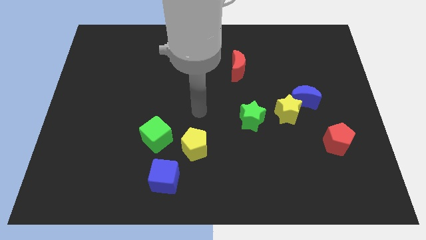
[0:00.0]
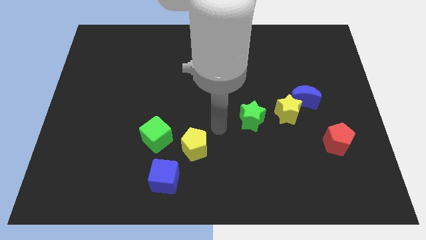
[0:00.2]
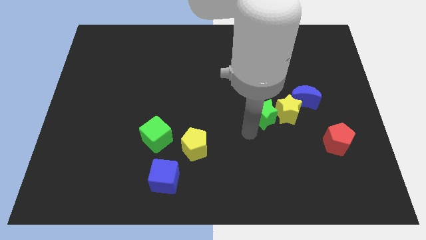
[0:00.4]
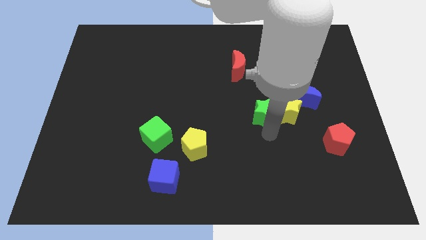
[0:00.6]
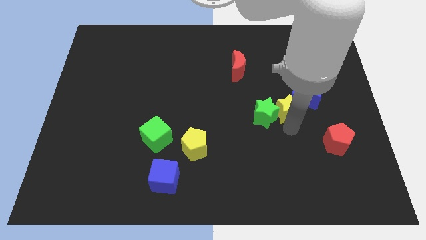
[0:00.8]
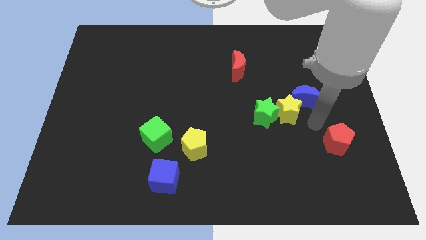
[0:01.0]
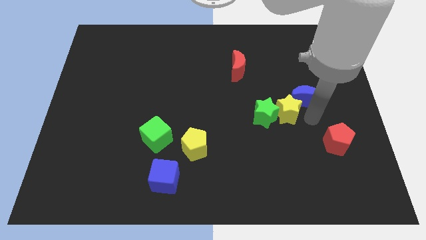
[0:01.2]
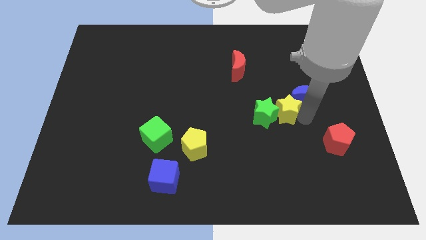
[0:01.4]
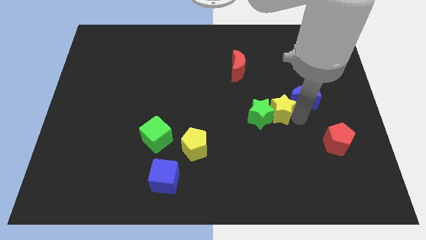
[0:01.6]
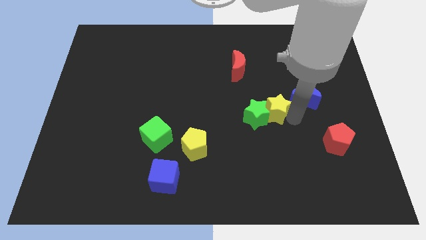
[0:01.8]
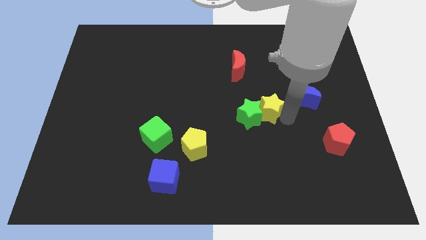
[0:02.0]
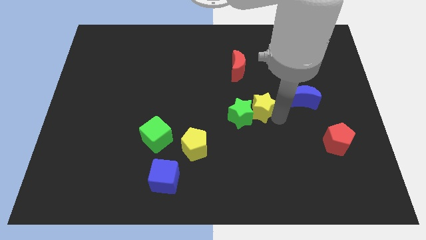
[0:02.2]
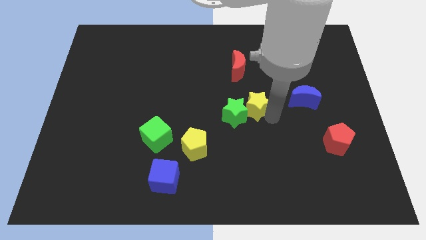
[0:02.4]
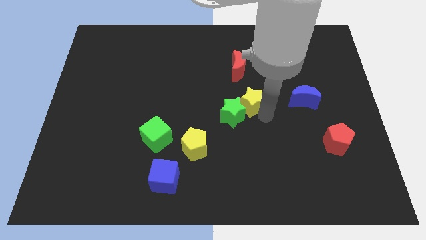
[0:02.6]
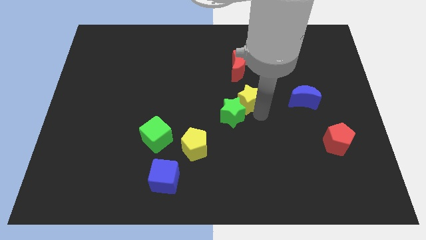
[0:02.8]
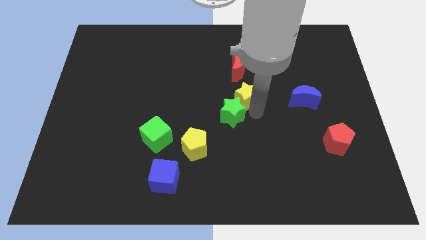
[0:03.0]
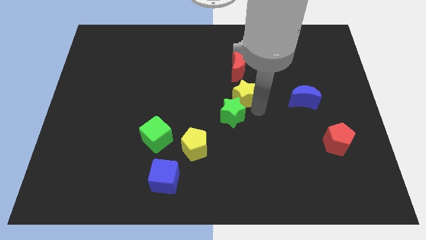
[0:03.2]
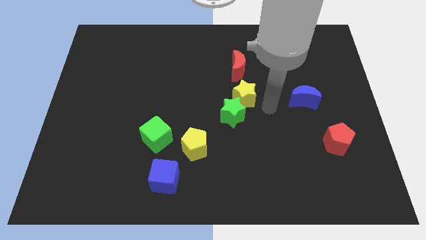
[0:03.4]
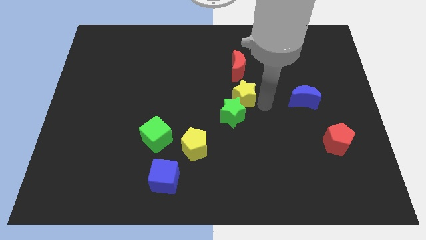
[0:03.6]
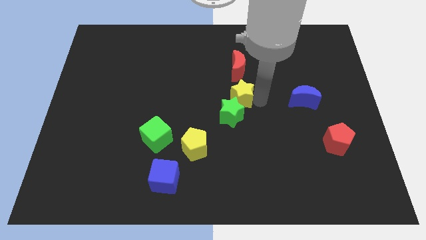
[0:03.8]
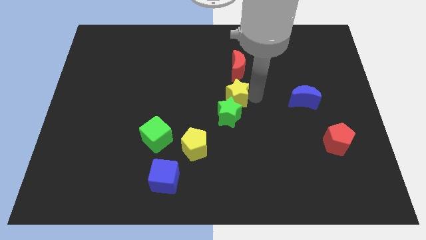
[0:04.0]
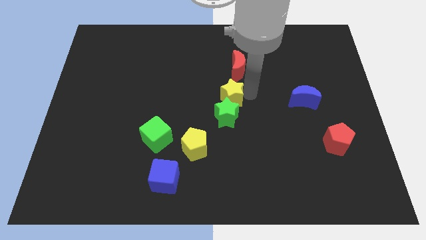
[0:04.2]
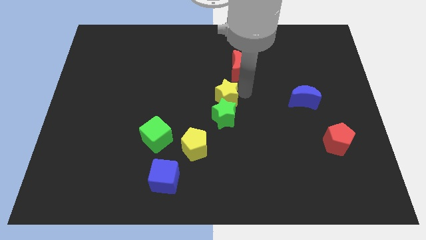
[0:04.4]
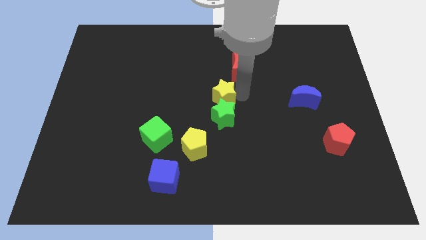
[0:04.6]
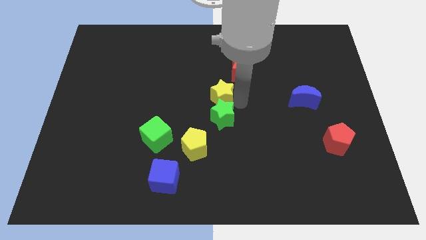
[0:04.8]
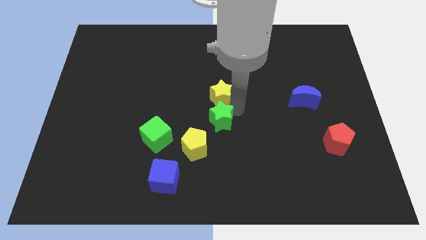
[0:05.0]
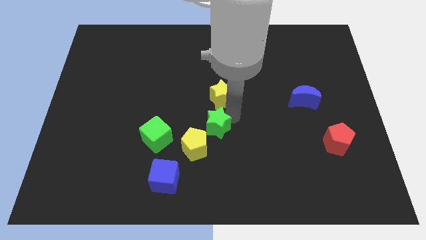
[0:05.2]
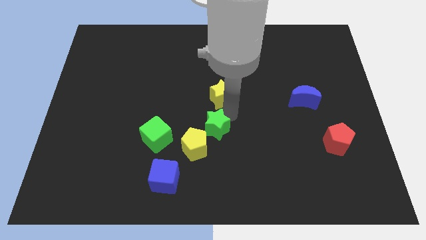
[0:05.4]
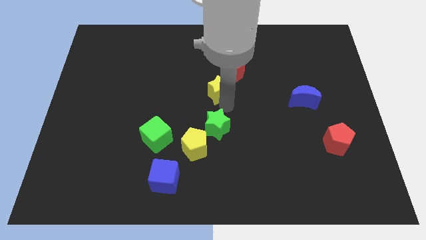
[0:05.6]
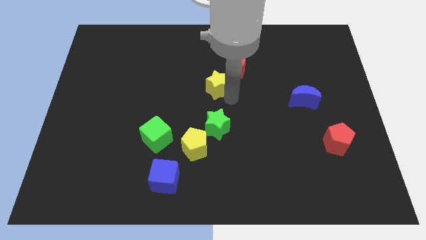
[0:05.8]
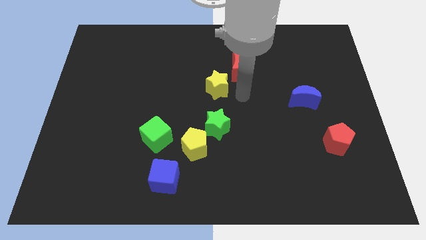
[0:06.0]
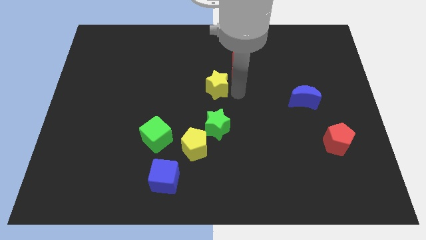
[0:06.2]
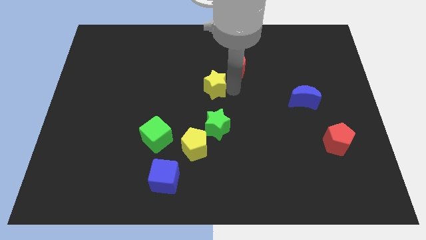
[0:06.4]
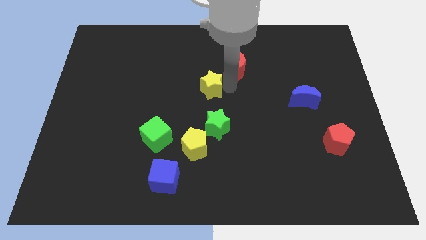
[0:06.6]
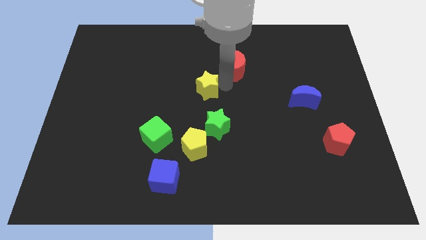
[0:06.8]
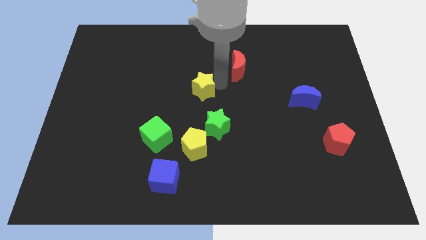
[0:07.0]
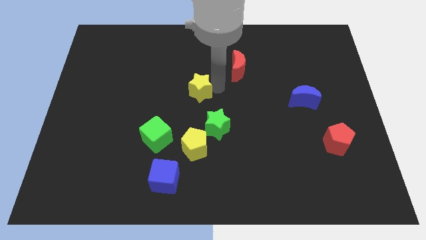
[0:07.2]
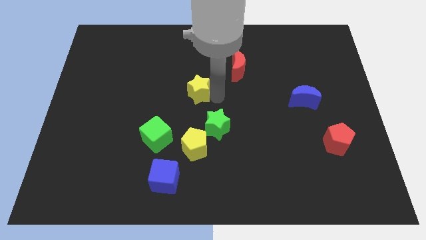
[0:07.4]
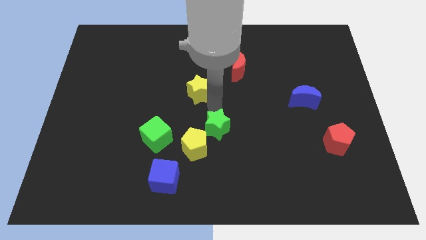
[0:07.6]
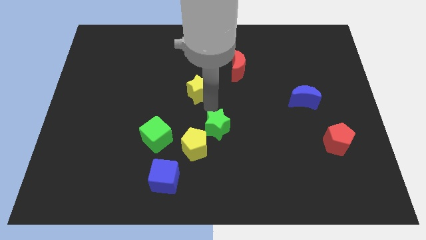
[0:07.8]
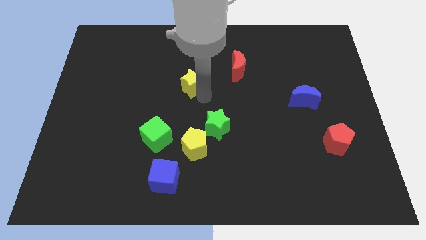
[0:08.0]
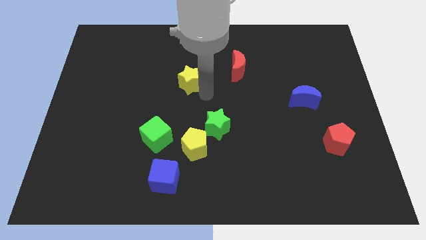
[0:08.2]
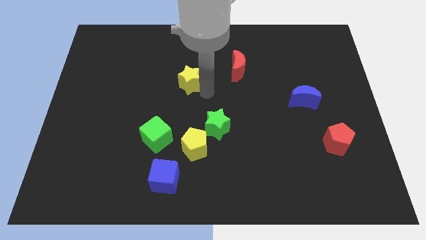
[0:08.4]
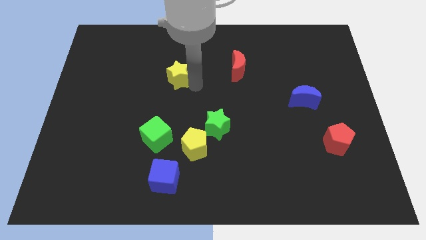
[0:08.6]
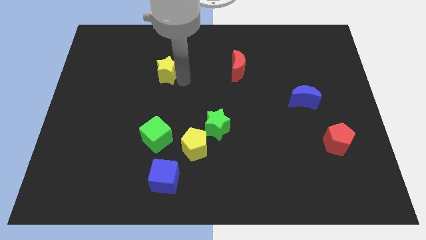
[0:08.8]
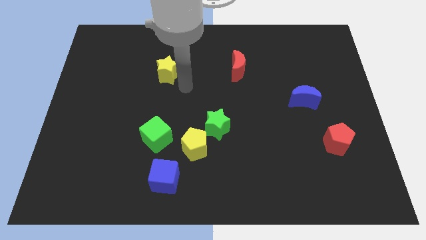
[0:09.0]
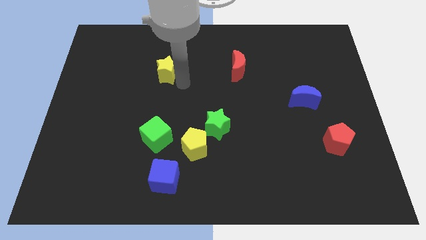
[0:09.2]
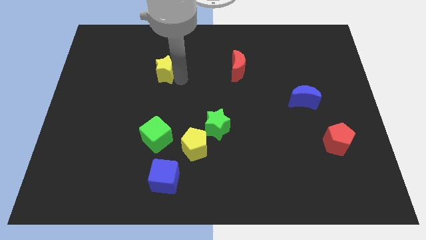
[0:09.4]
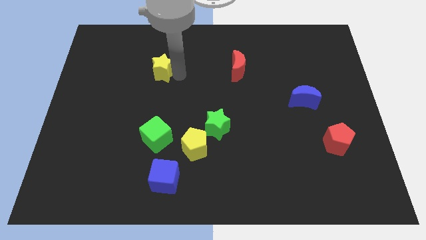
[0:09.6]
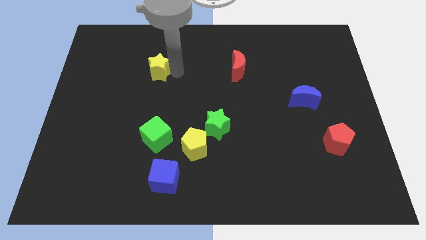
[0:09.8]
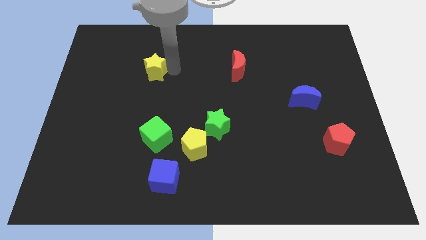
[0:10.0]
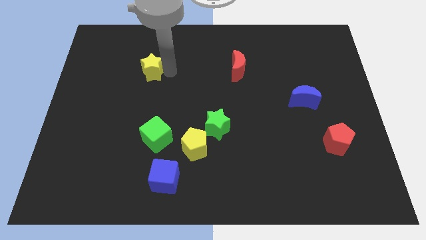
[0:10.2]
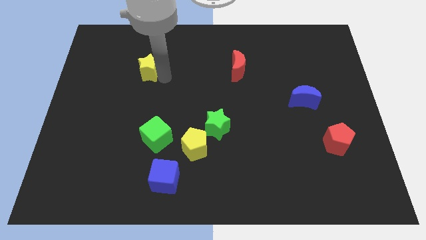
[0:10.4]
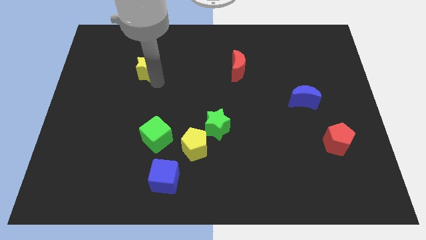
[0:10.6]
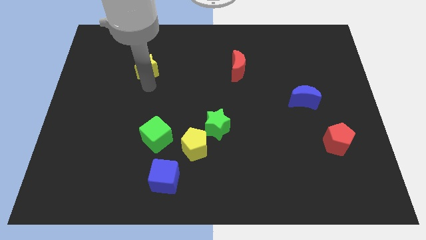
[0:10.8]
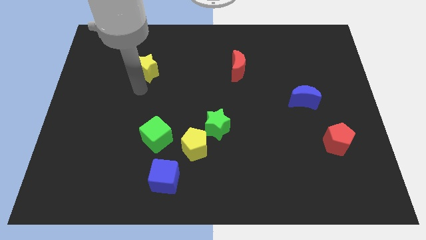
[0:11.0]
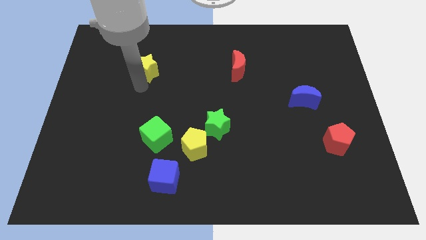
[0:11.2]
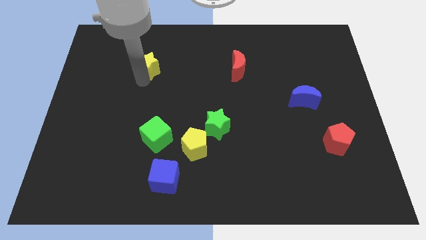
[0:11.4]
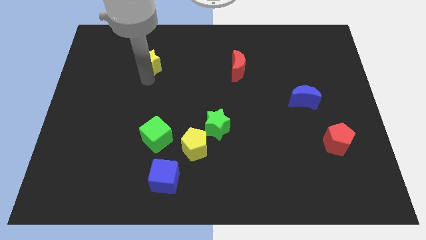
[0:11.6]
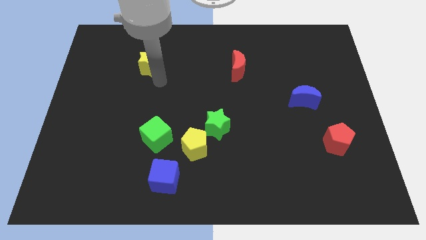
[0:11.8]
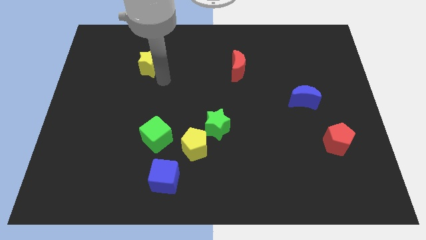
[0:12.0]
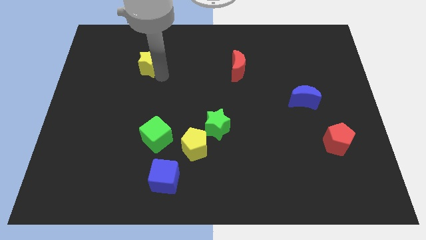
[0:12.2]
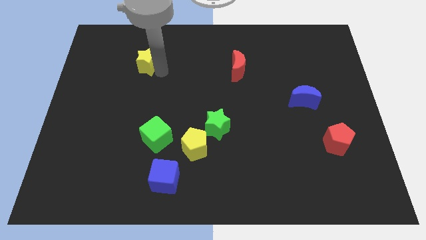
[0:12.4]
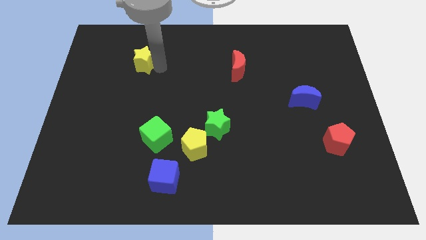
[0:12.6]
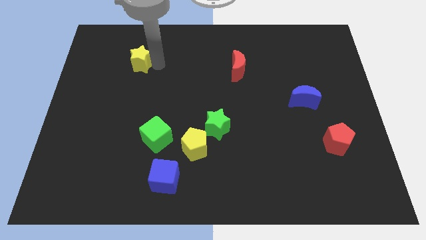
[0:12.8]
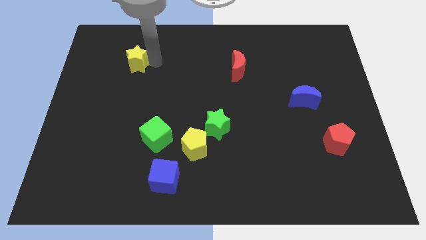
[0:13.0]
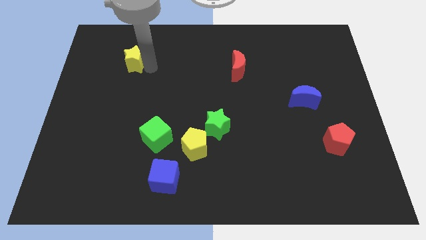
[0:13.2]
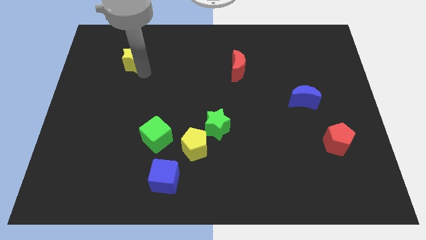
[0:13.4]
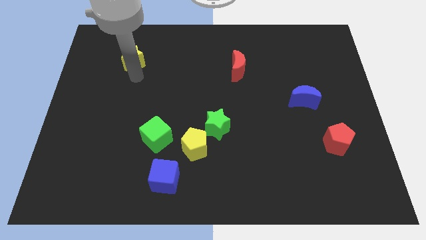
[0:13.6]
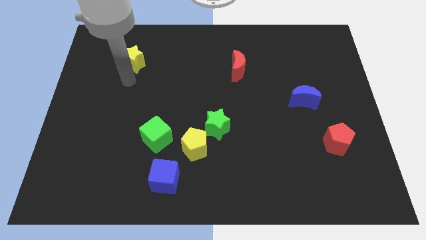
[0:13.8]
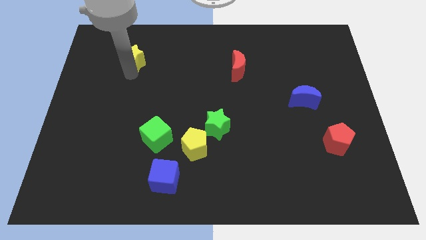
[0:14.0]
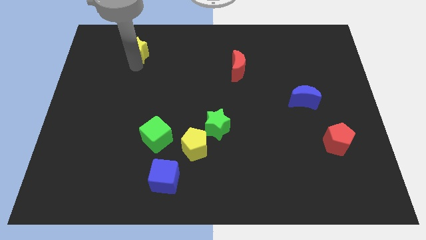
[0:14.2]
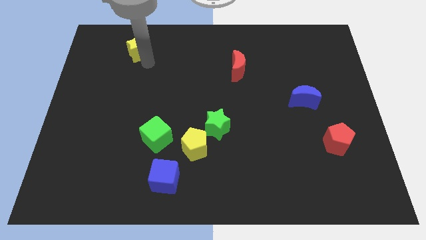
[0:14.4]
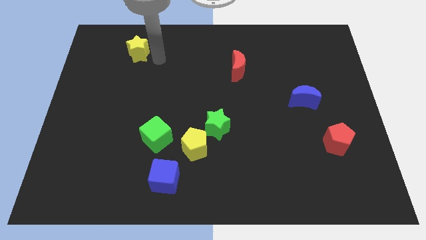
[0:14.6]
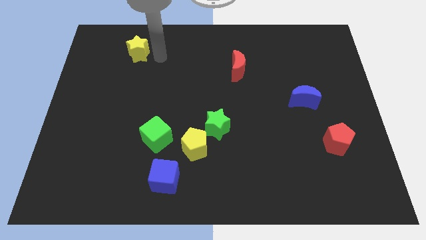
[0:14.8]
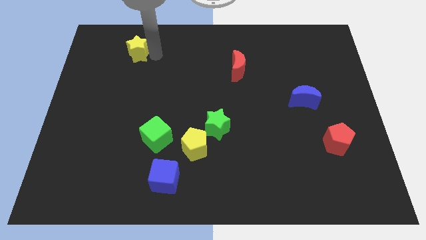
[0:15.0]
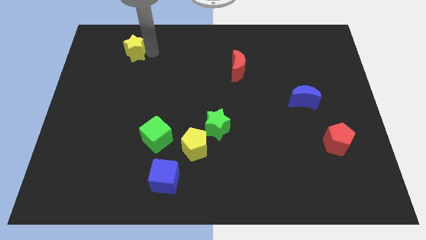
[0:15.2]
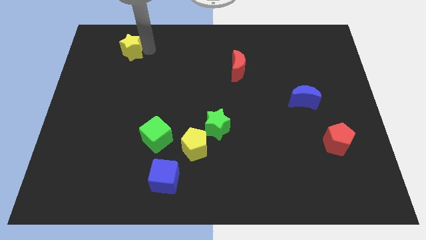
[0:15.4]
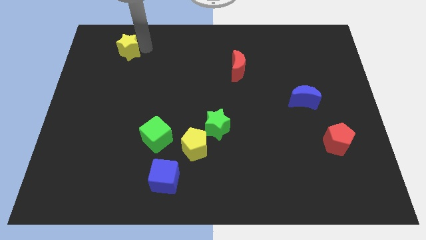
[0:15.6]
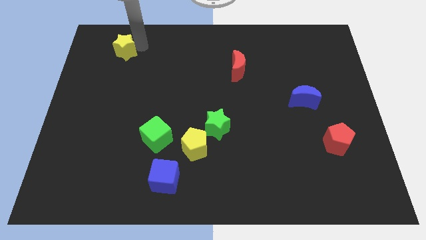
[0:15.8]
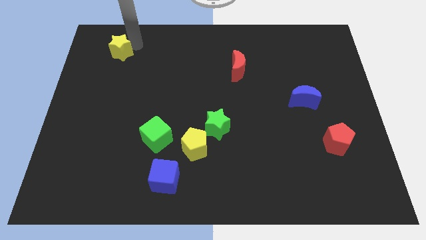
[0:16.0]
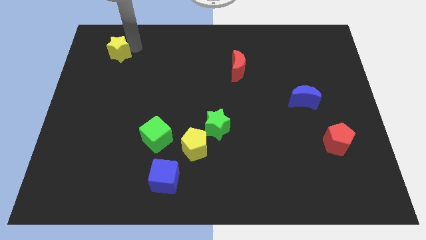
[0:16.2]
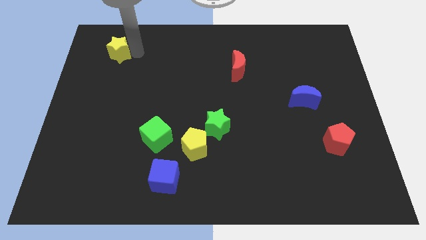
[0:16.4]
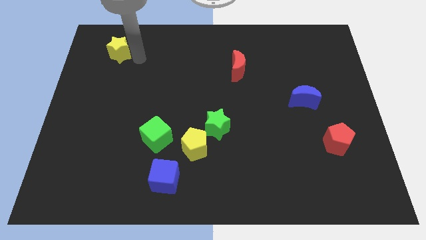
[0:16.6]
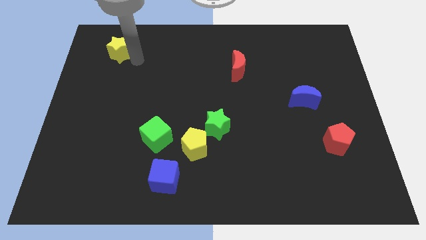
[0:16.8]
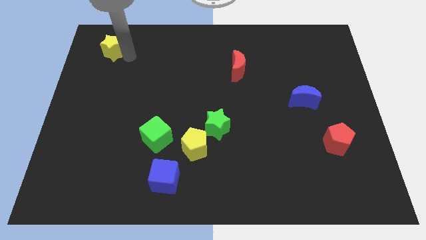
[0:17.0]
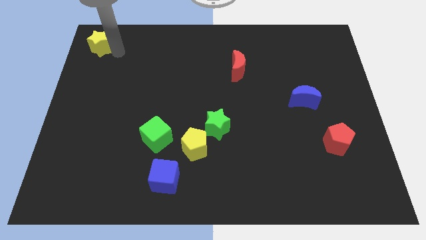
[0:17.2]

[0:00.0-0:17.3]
slide the yellow star to the top left
